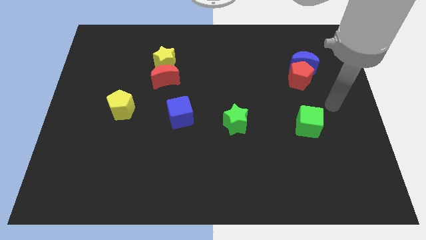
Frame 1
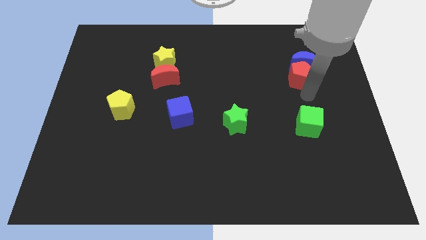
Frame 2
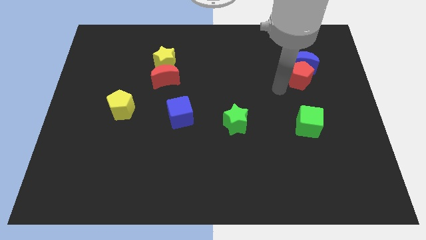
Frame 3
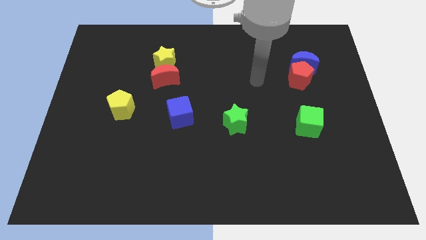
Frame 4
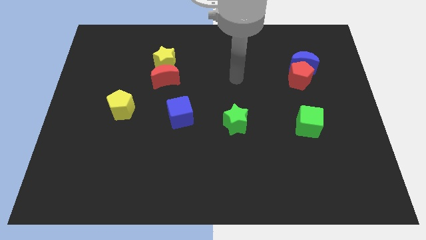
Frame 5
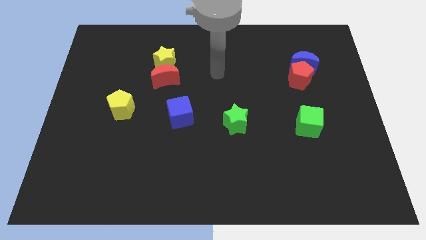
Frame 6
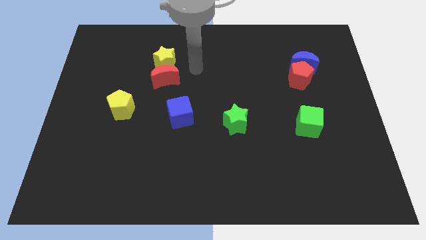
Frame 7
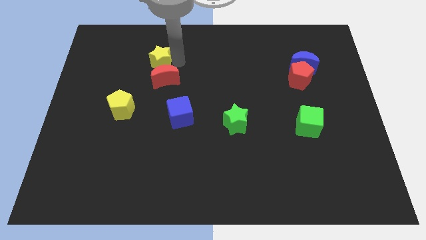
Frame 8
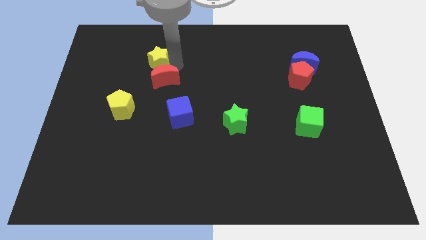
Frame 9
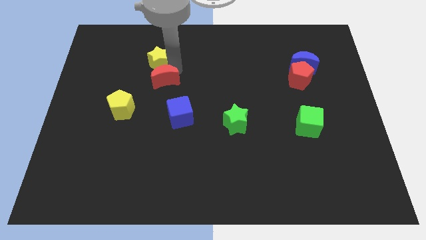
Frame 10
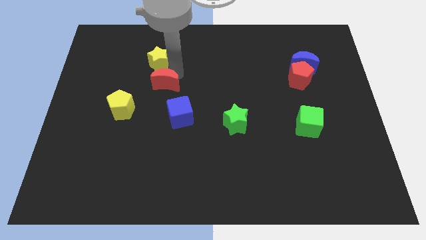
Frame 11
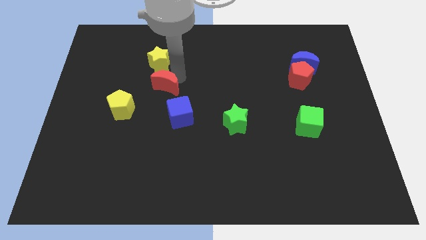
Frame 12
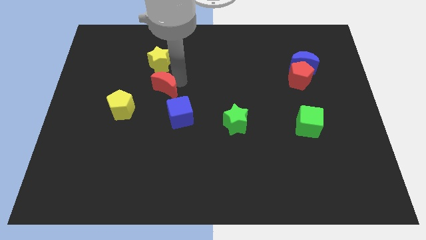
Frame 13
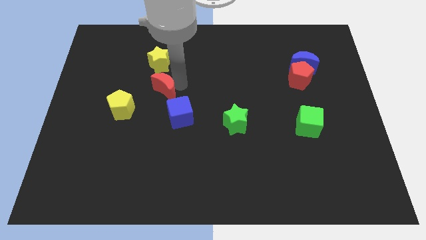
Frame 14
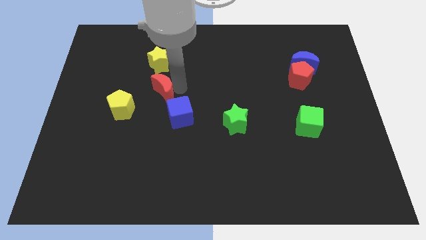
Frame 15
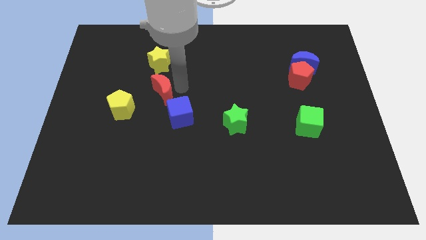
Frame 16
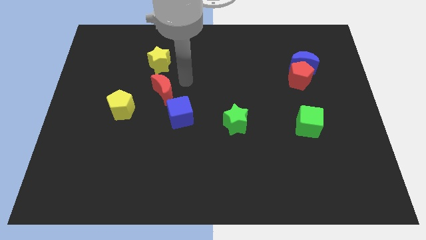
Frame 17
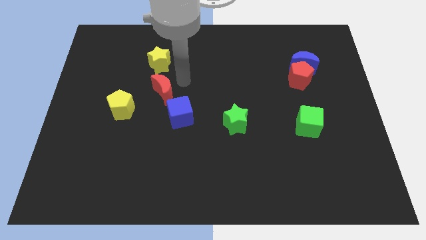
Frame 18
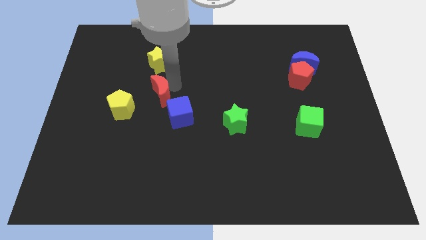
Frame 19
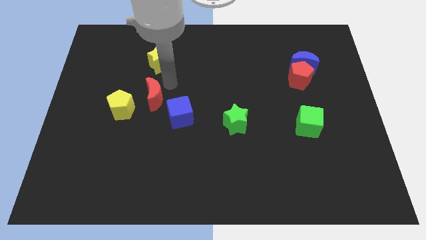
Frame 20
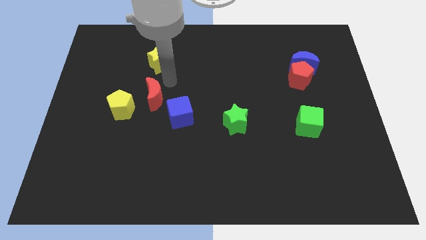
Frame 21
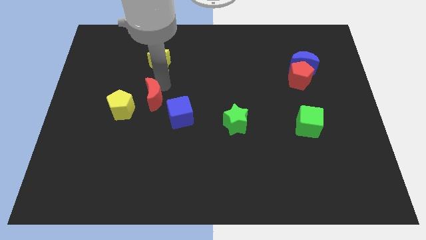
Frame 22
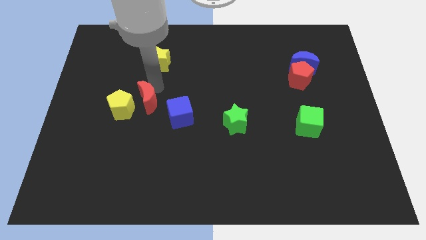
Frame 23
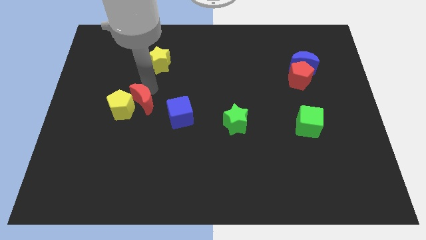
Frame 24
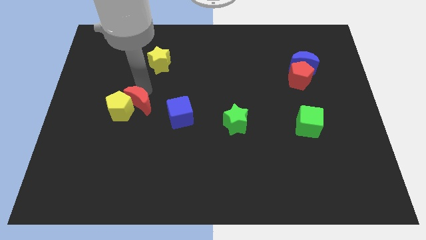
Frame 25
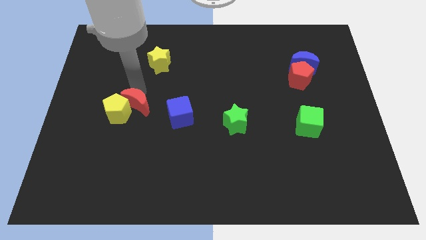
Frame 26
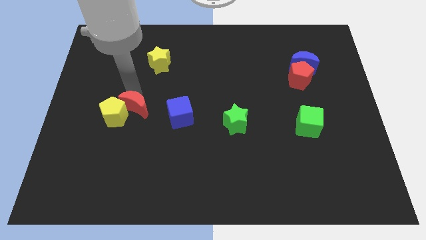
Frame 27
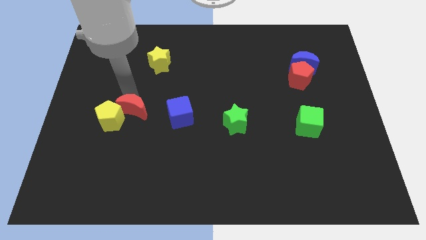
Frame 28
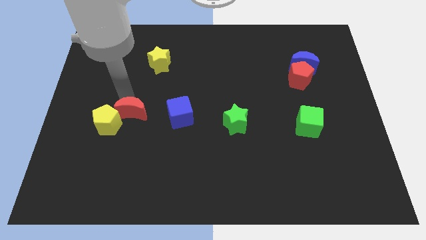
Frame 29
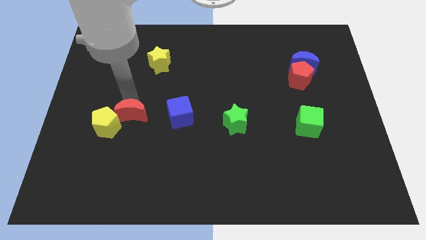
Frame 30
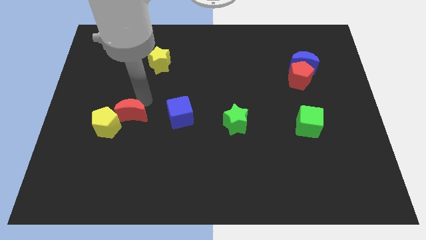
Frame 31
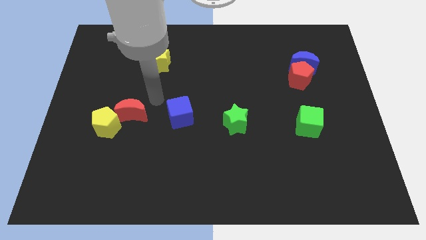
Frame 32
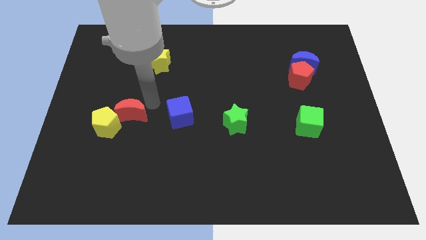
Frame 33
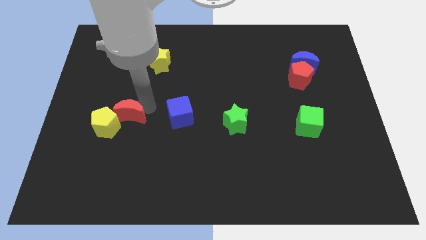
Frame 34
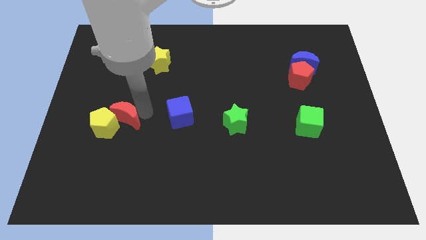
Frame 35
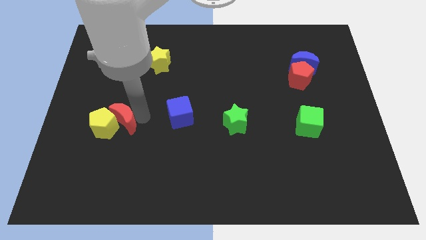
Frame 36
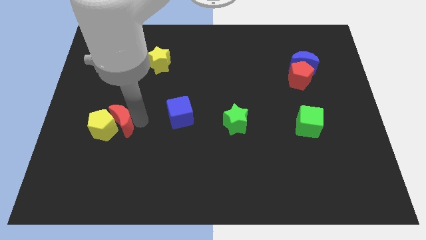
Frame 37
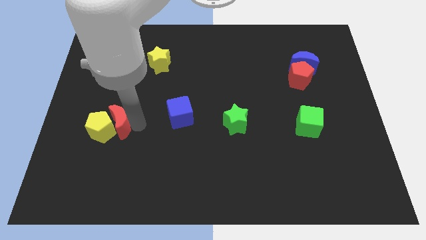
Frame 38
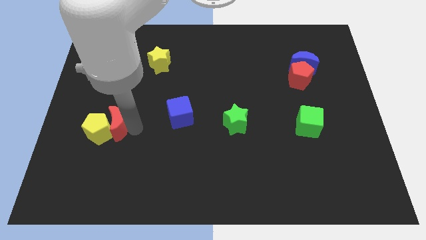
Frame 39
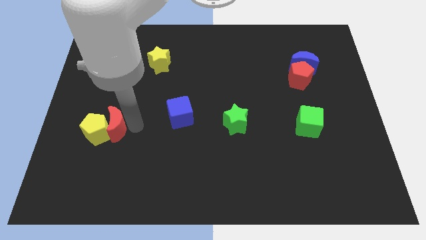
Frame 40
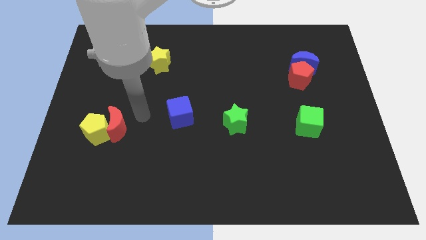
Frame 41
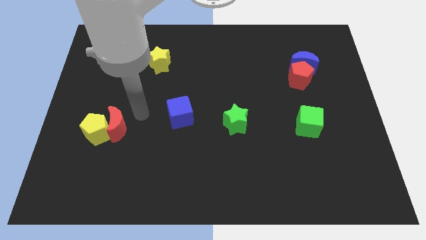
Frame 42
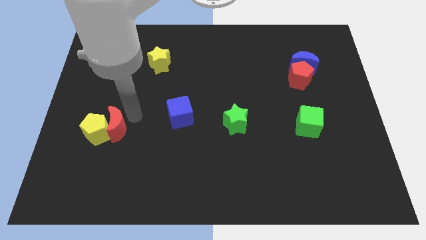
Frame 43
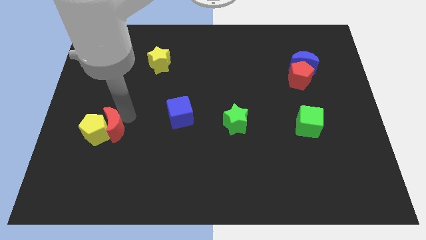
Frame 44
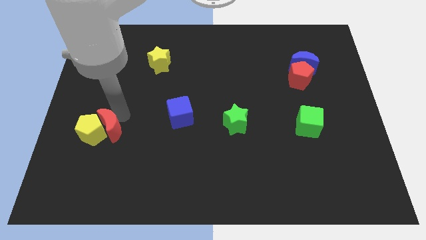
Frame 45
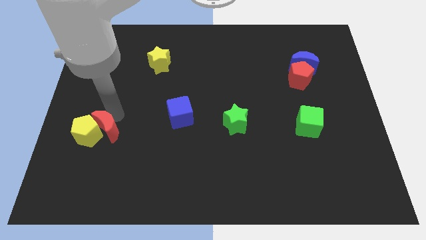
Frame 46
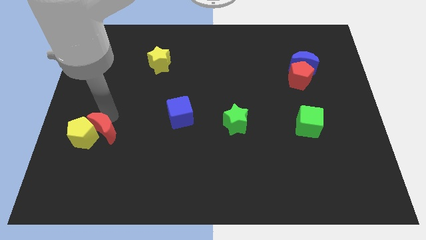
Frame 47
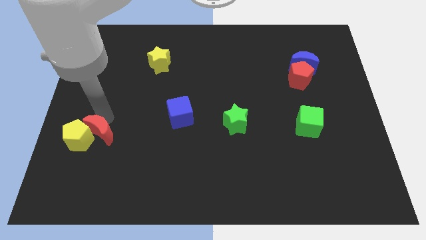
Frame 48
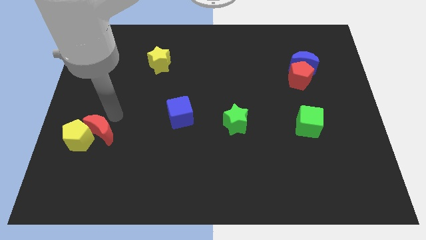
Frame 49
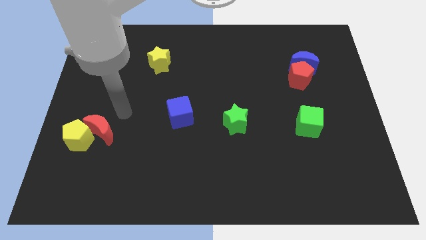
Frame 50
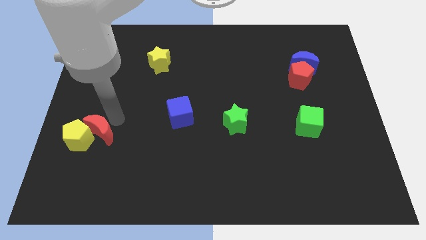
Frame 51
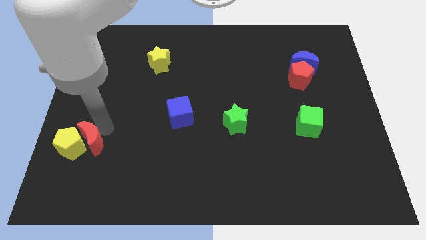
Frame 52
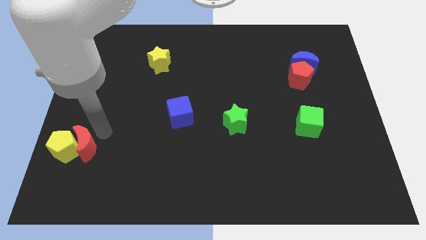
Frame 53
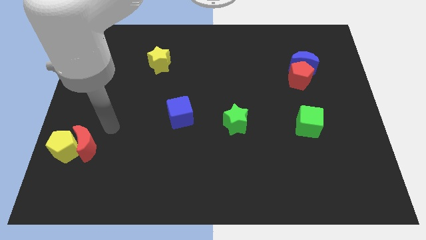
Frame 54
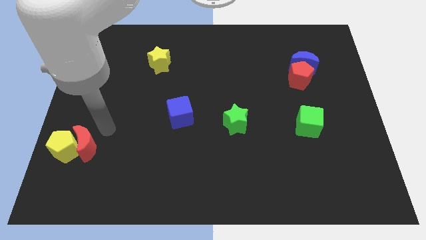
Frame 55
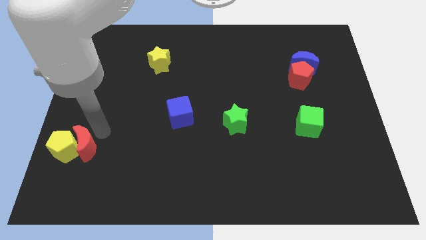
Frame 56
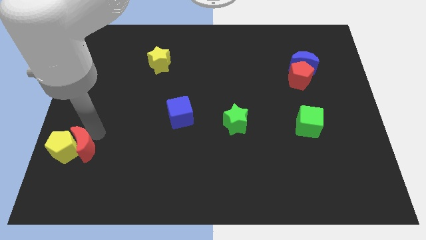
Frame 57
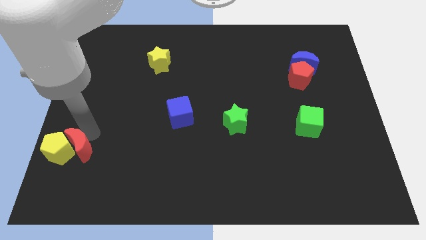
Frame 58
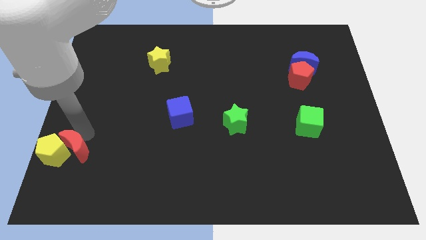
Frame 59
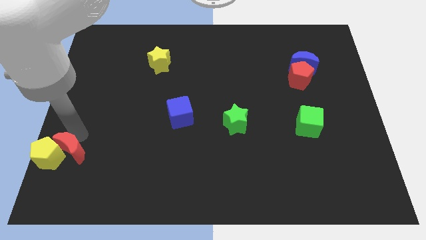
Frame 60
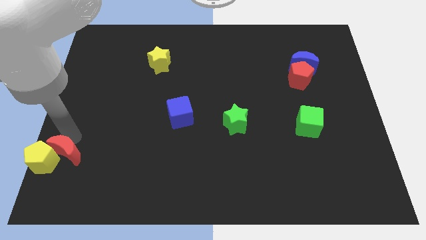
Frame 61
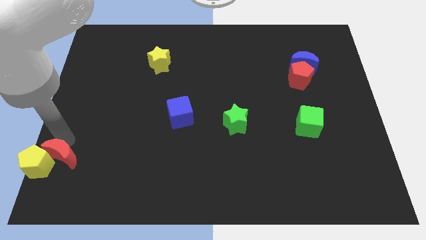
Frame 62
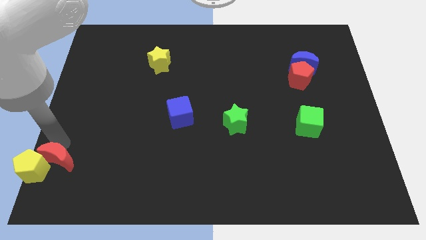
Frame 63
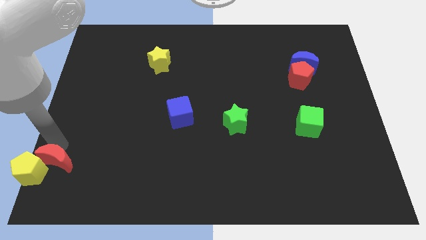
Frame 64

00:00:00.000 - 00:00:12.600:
move the red moon to the lower left corner
